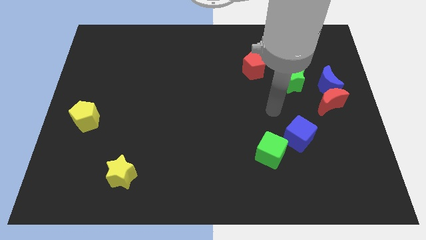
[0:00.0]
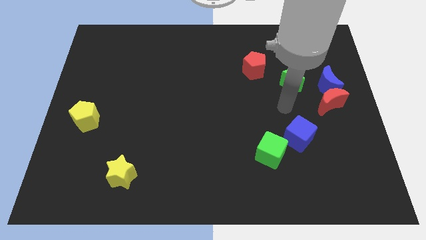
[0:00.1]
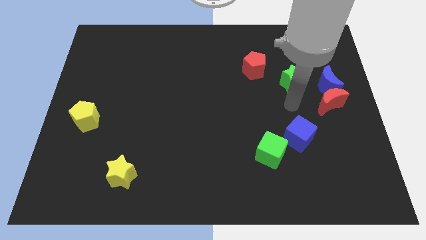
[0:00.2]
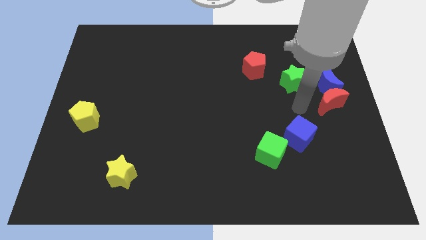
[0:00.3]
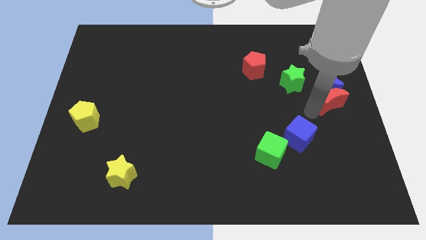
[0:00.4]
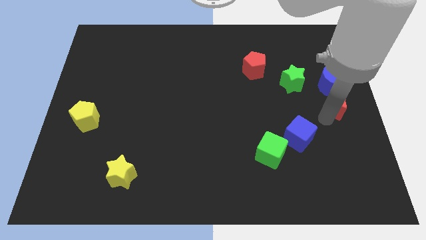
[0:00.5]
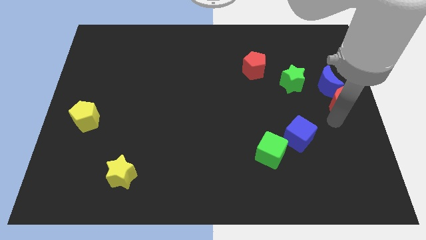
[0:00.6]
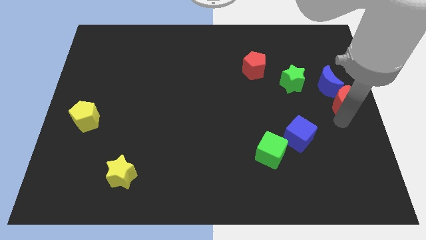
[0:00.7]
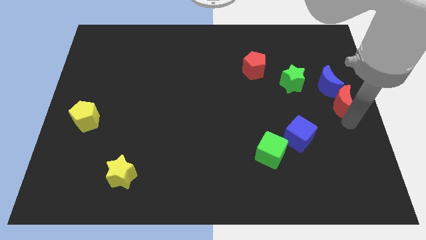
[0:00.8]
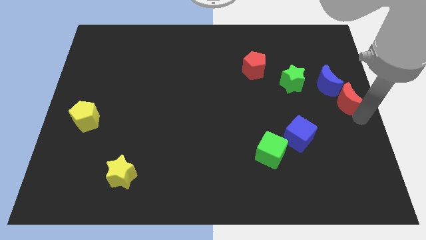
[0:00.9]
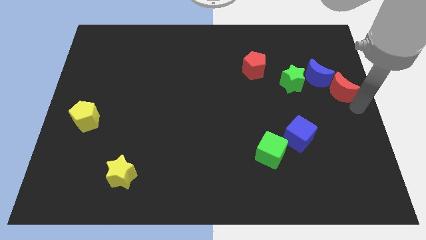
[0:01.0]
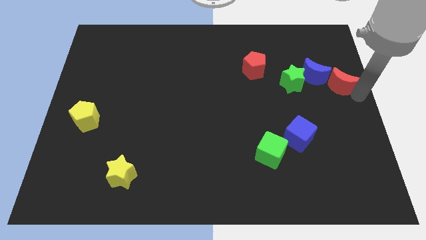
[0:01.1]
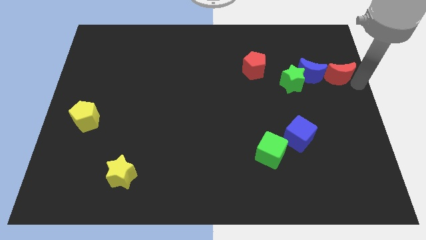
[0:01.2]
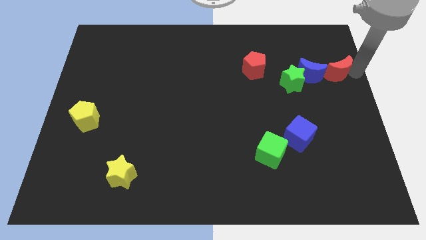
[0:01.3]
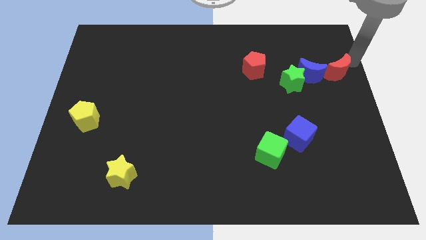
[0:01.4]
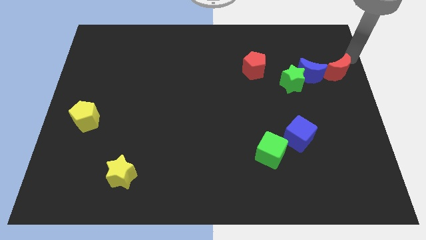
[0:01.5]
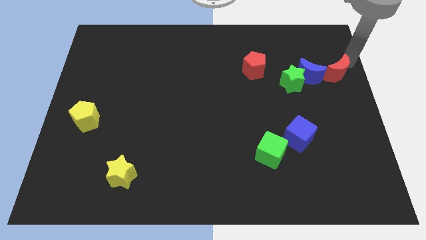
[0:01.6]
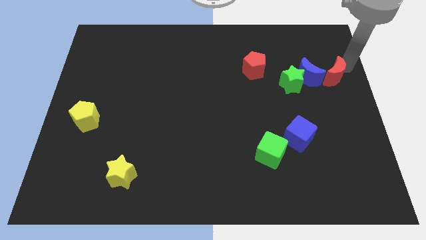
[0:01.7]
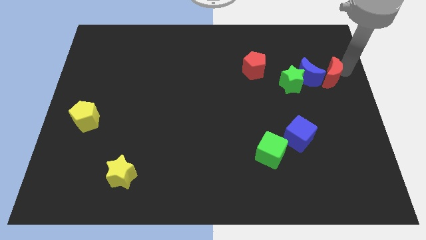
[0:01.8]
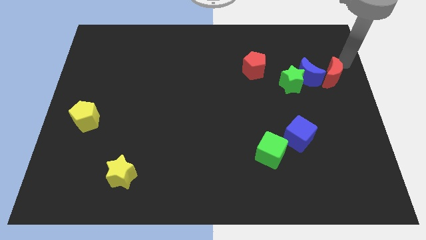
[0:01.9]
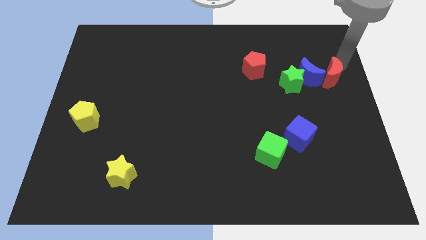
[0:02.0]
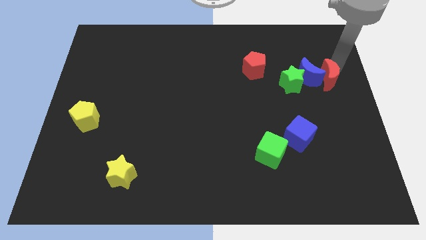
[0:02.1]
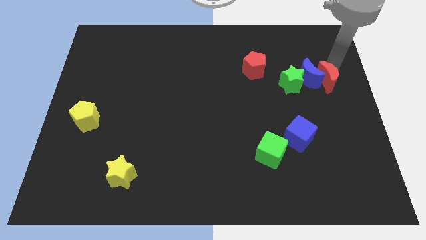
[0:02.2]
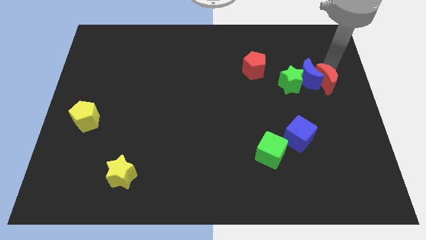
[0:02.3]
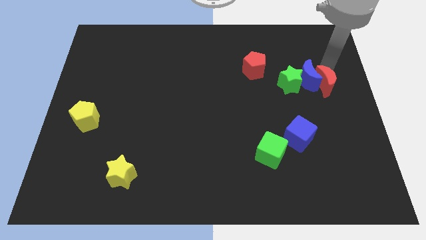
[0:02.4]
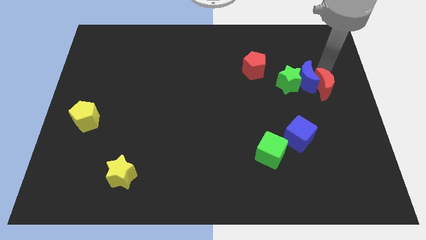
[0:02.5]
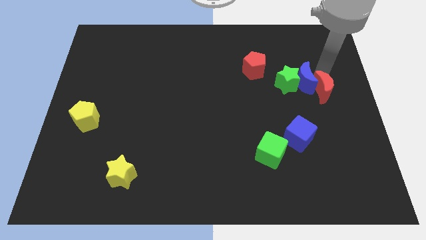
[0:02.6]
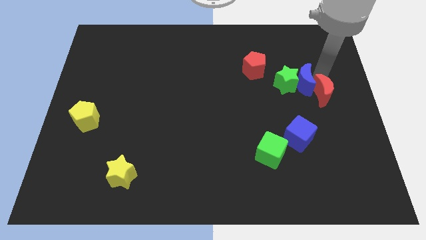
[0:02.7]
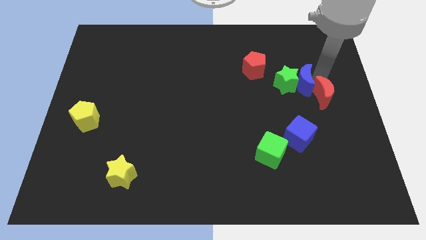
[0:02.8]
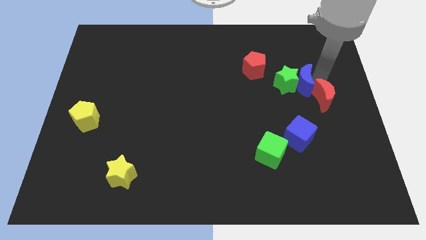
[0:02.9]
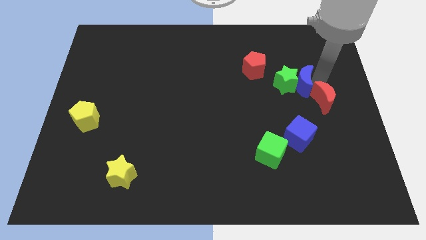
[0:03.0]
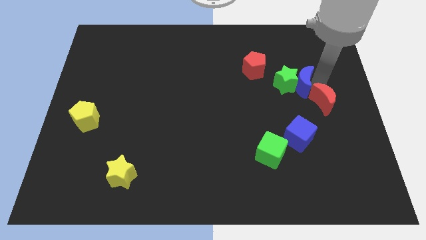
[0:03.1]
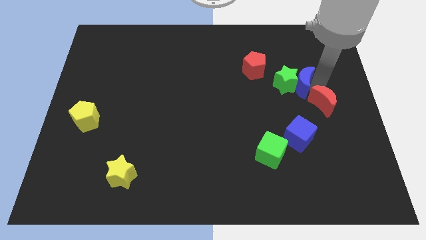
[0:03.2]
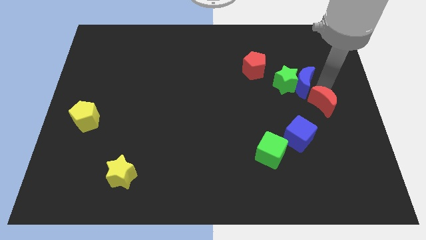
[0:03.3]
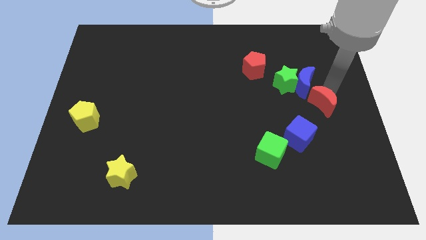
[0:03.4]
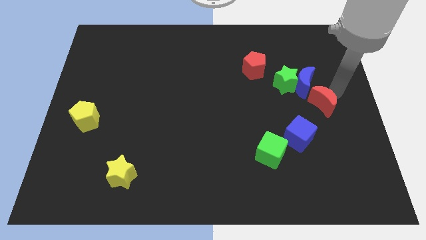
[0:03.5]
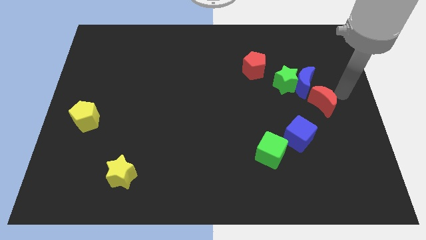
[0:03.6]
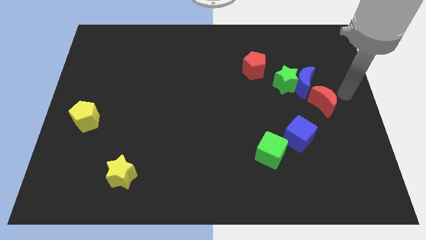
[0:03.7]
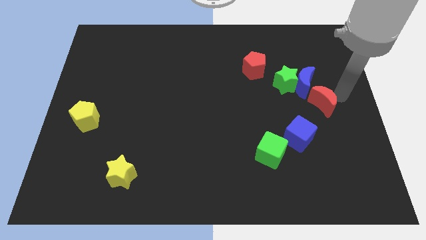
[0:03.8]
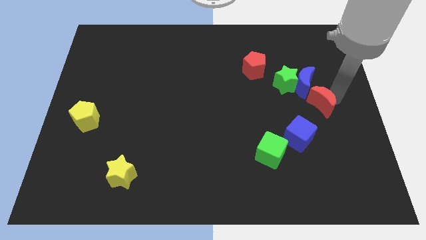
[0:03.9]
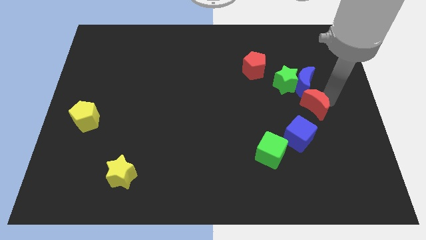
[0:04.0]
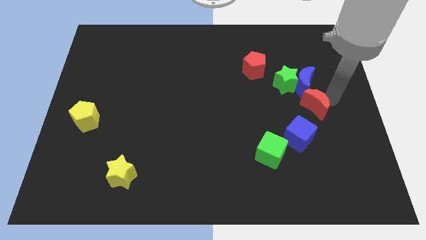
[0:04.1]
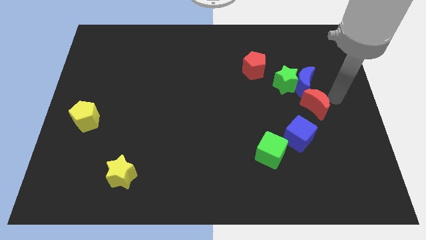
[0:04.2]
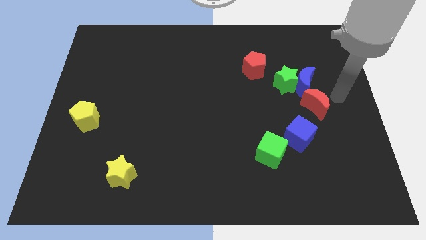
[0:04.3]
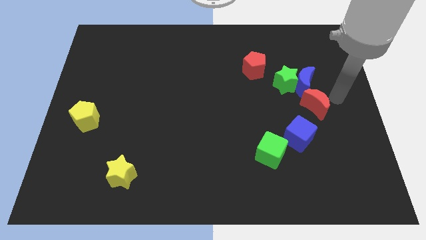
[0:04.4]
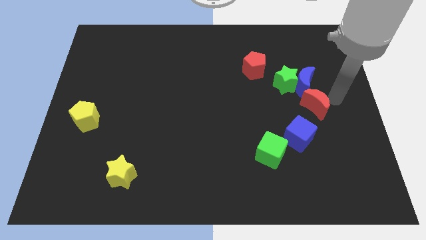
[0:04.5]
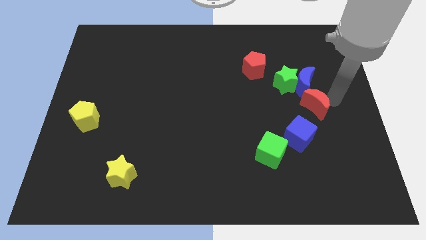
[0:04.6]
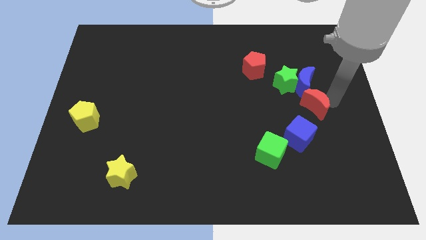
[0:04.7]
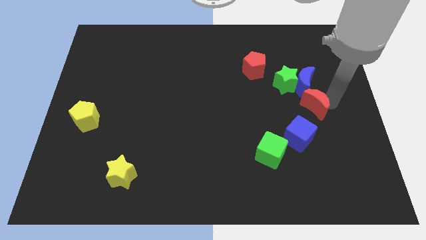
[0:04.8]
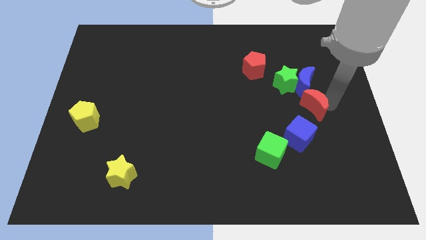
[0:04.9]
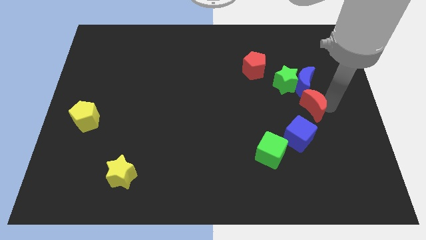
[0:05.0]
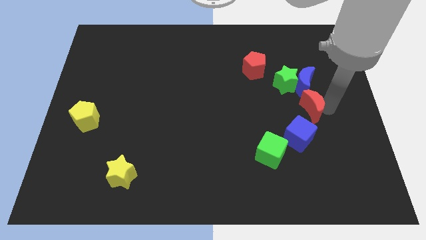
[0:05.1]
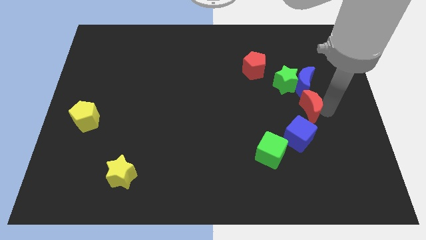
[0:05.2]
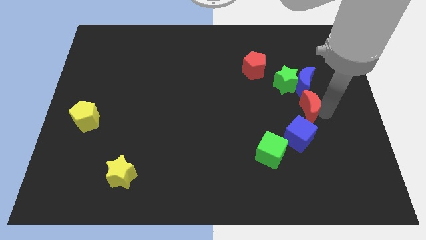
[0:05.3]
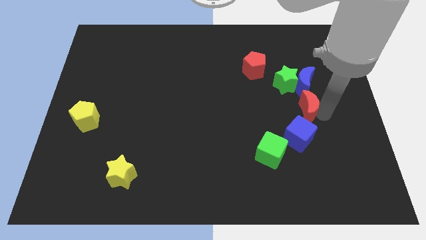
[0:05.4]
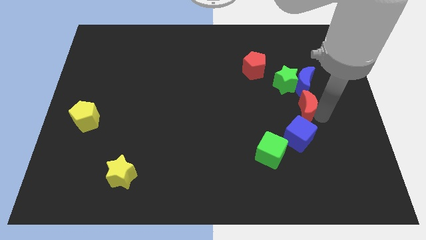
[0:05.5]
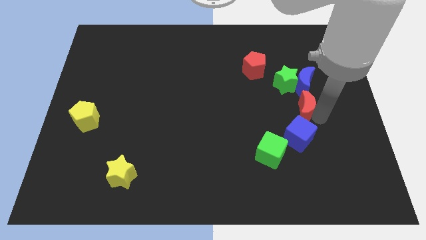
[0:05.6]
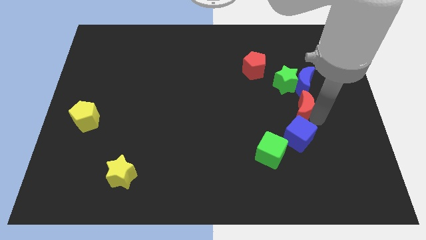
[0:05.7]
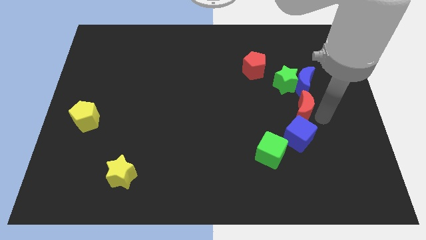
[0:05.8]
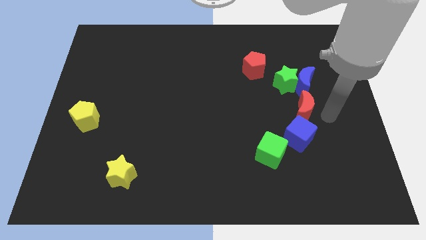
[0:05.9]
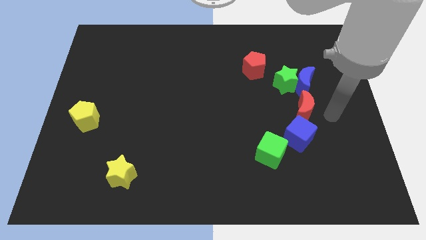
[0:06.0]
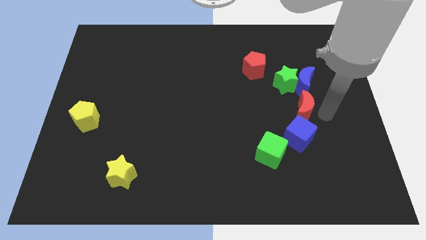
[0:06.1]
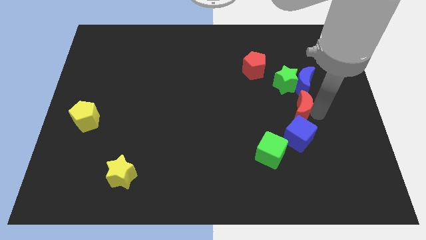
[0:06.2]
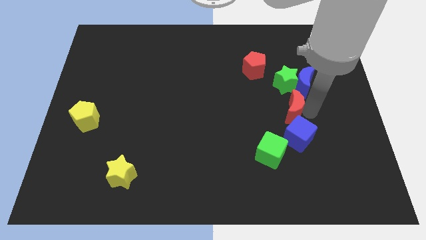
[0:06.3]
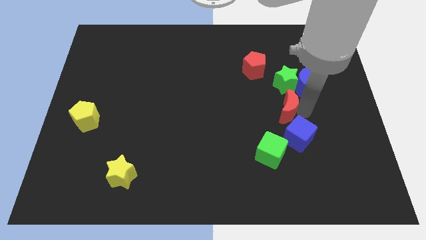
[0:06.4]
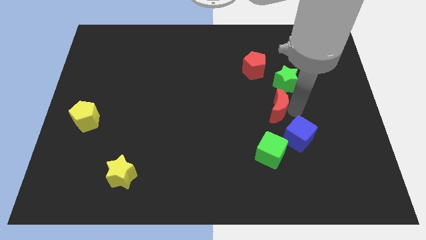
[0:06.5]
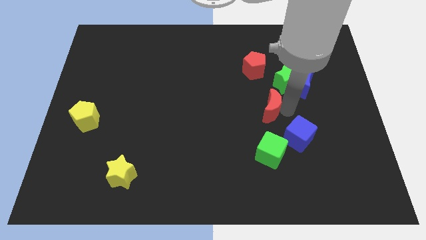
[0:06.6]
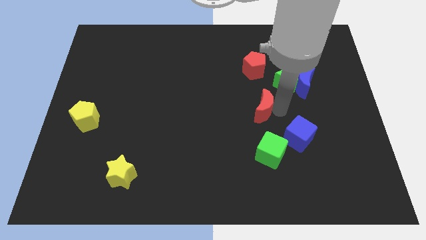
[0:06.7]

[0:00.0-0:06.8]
move the red moon to the middle
